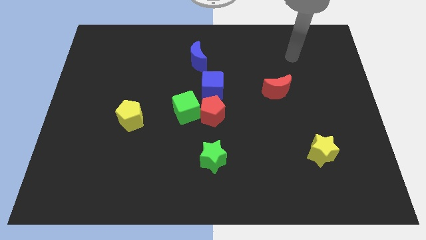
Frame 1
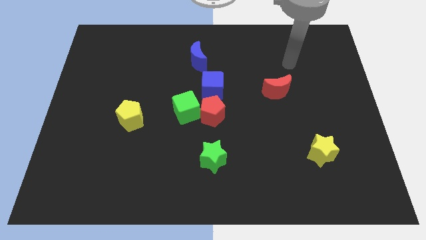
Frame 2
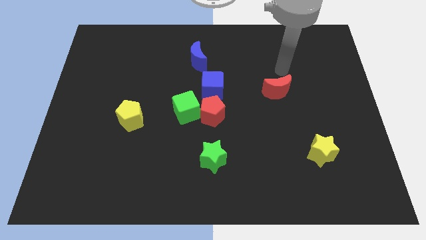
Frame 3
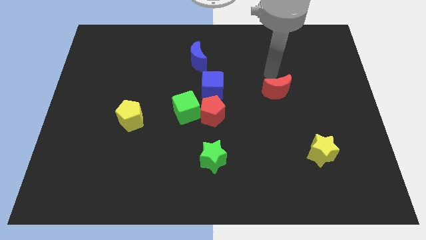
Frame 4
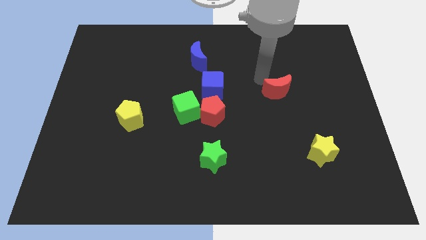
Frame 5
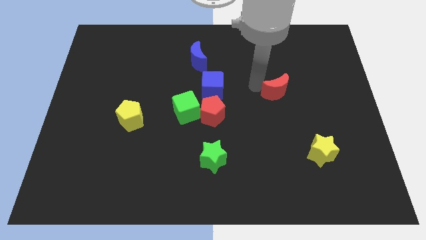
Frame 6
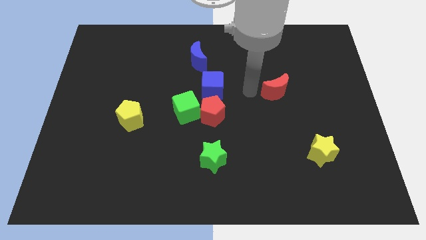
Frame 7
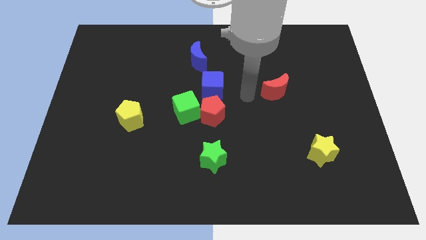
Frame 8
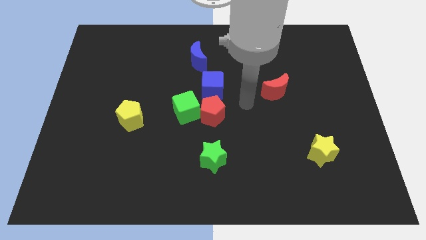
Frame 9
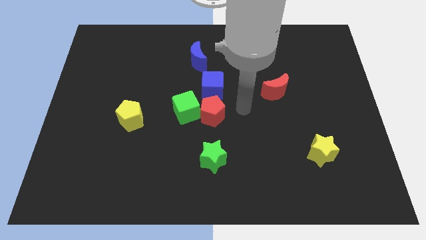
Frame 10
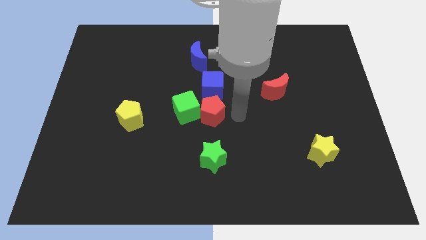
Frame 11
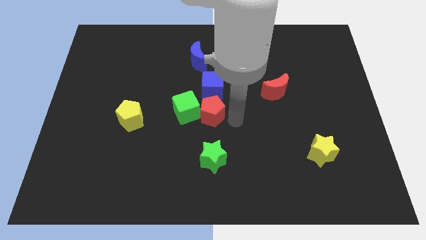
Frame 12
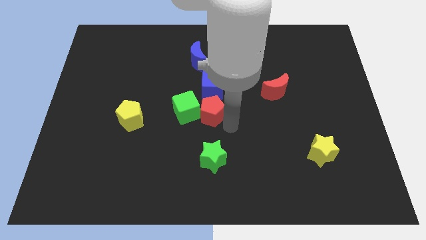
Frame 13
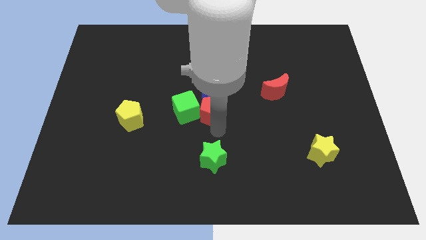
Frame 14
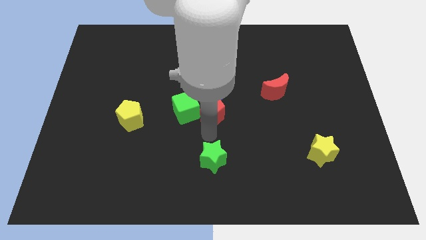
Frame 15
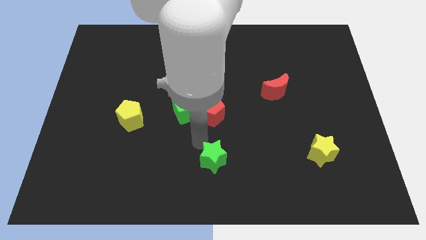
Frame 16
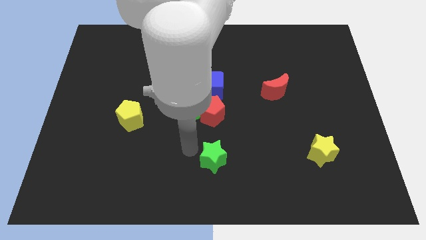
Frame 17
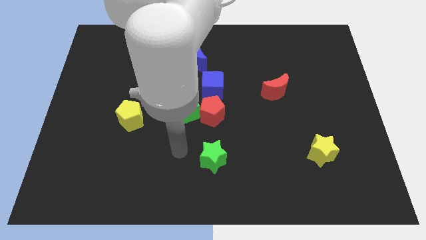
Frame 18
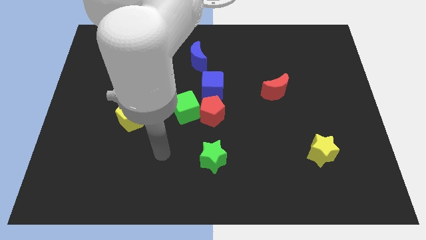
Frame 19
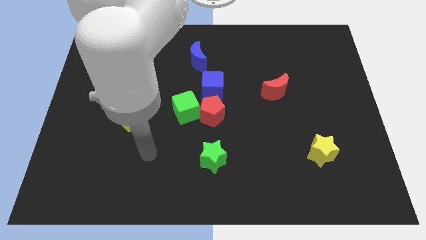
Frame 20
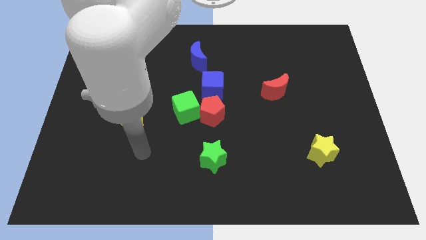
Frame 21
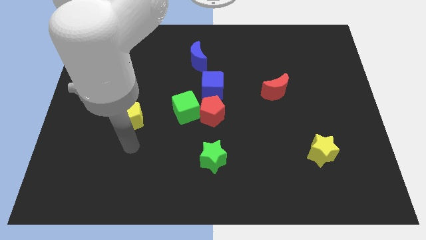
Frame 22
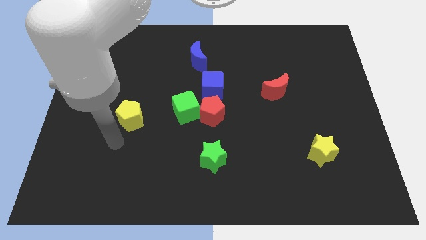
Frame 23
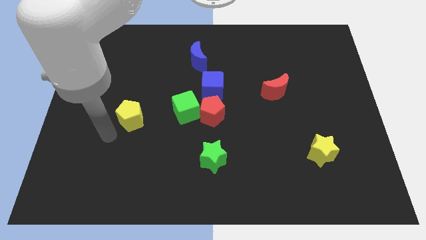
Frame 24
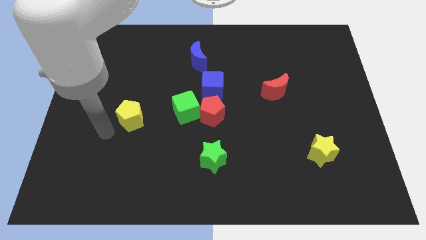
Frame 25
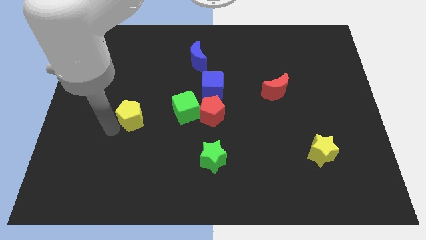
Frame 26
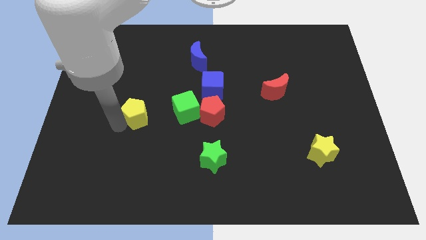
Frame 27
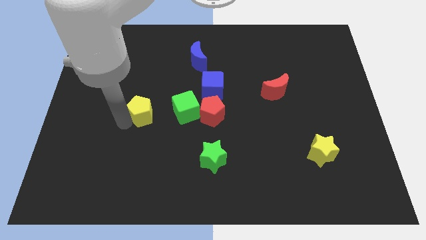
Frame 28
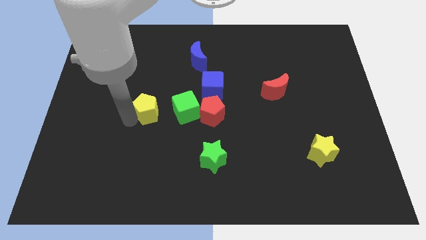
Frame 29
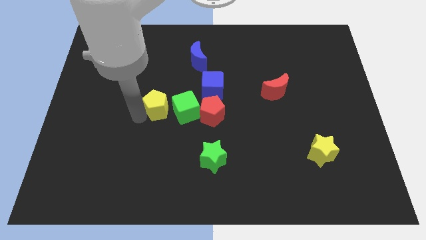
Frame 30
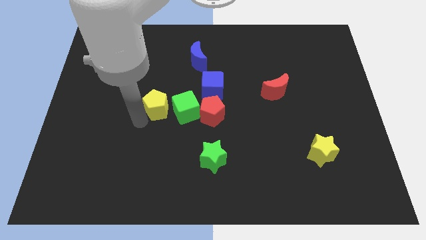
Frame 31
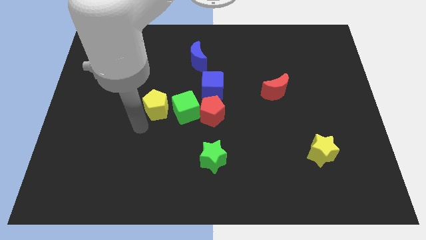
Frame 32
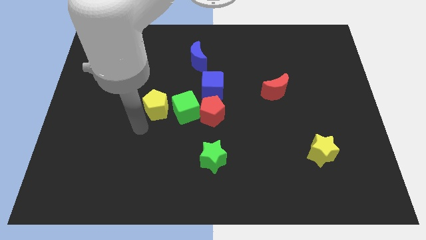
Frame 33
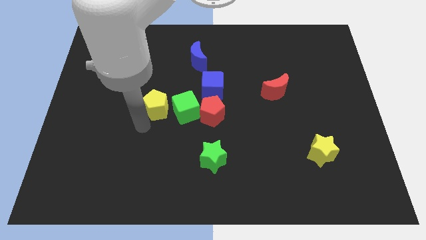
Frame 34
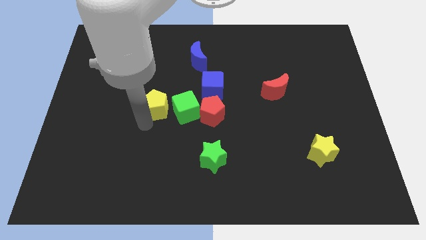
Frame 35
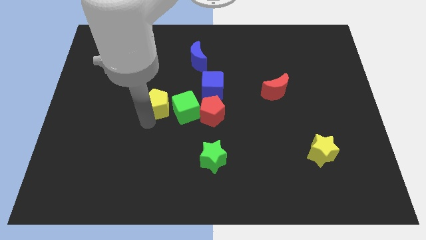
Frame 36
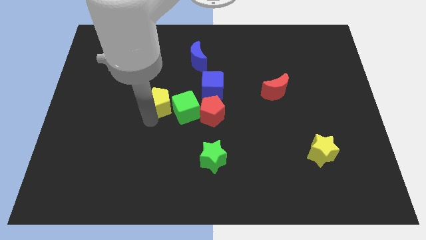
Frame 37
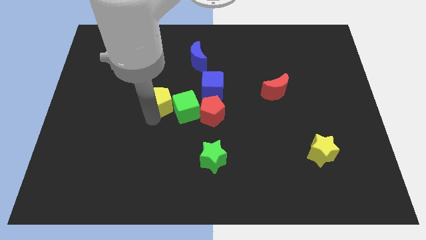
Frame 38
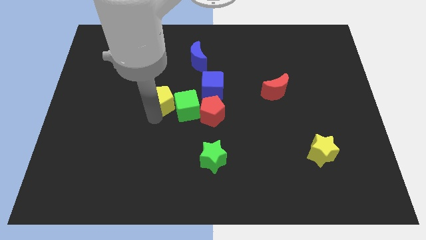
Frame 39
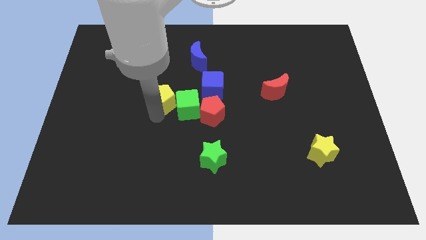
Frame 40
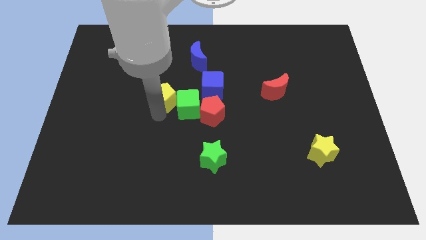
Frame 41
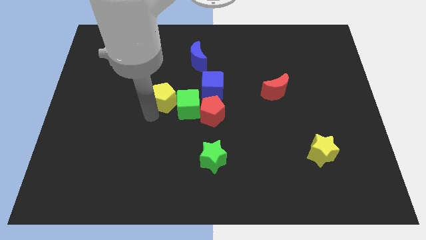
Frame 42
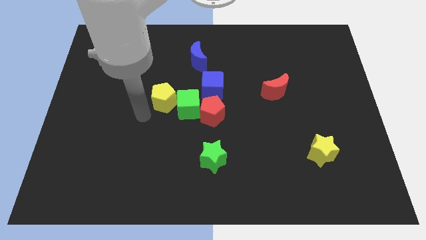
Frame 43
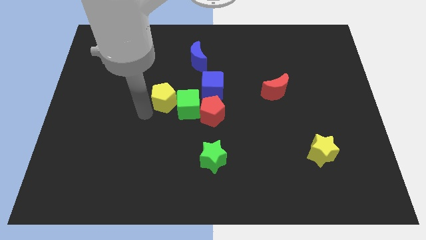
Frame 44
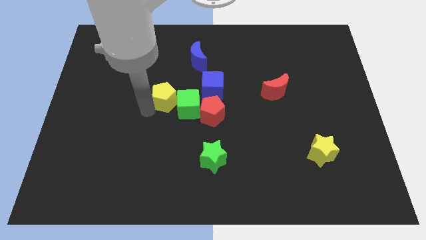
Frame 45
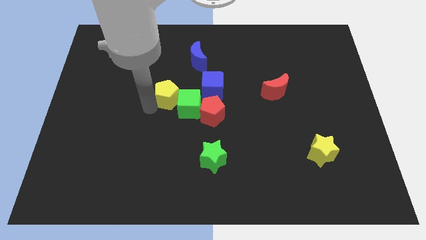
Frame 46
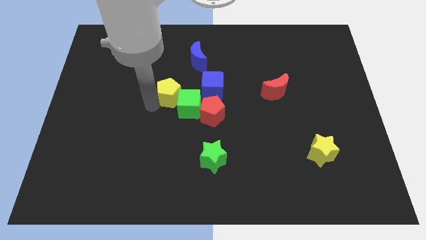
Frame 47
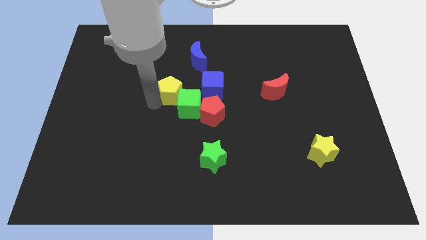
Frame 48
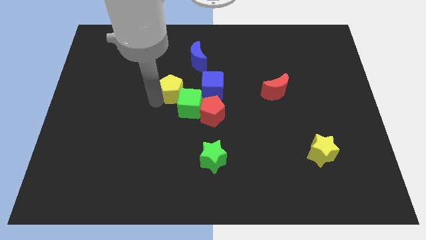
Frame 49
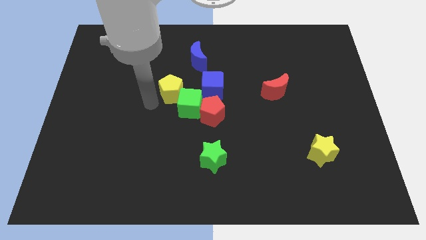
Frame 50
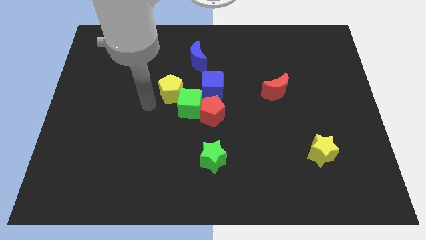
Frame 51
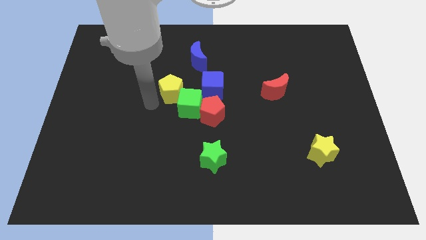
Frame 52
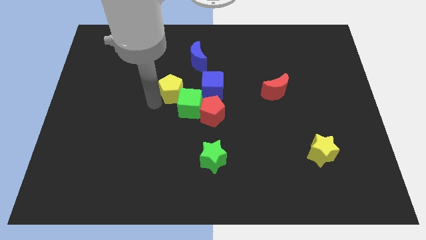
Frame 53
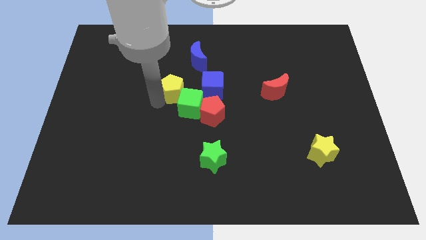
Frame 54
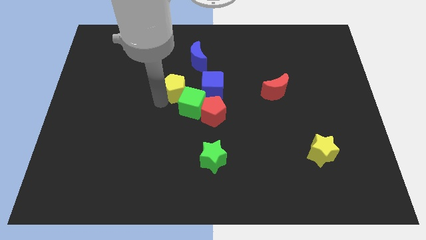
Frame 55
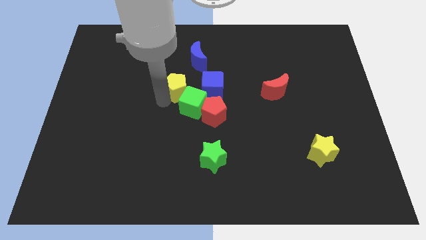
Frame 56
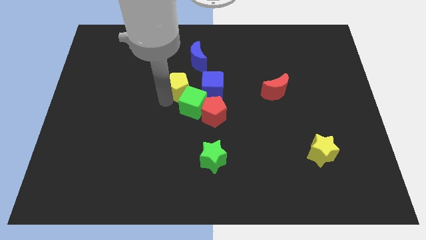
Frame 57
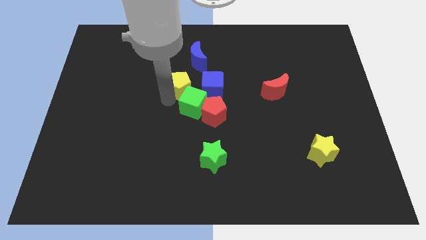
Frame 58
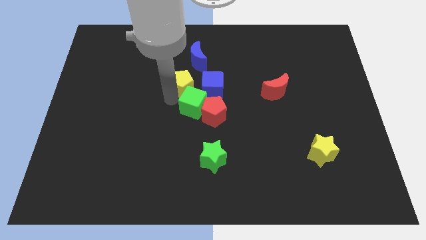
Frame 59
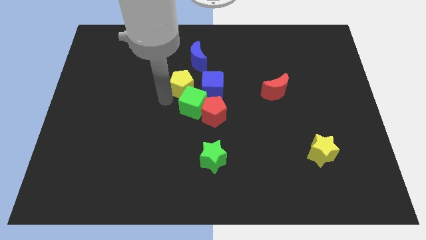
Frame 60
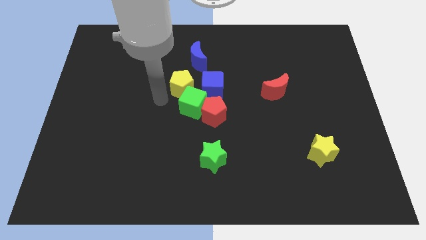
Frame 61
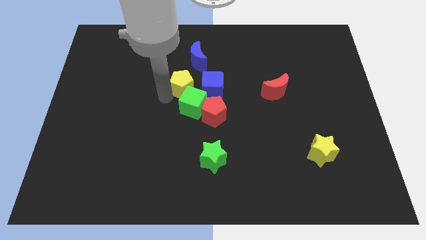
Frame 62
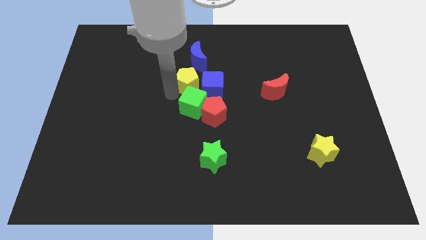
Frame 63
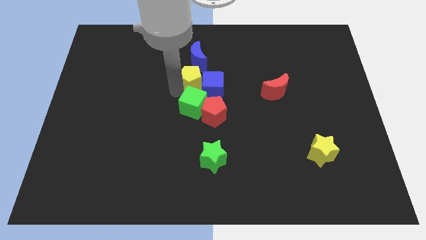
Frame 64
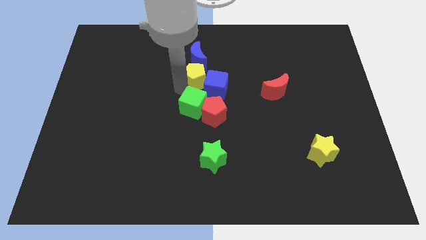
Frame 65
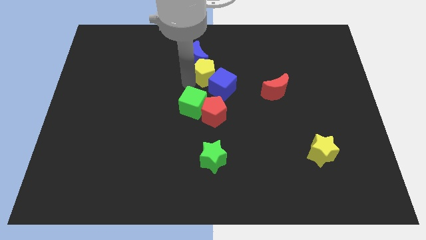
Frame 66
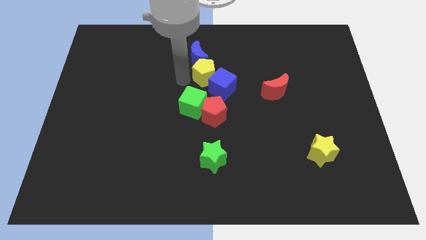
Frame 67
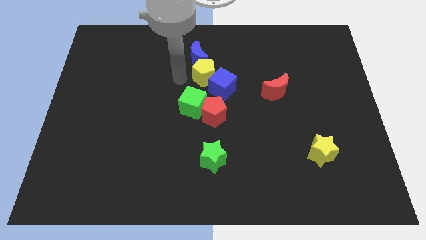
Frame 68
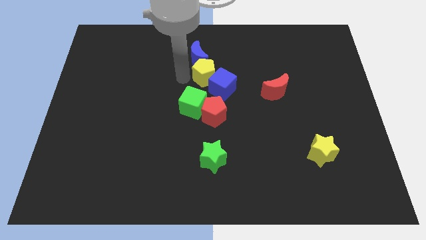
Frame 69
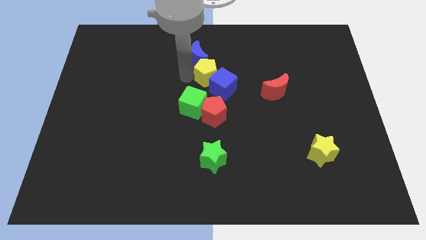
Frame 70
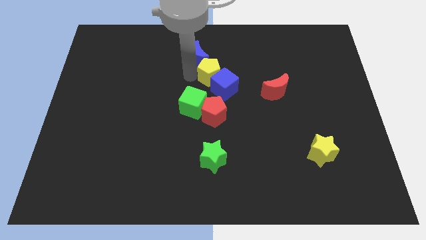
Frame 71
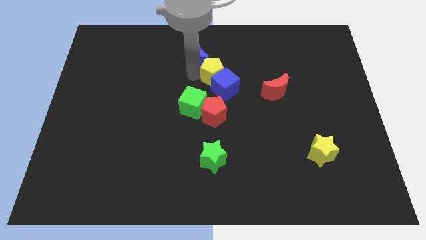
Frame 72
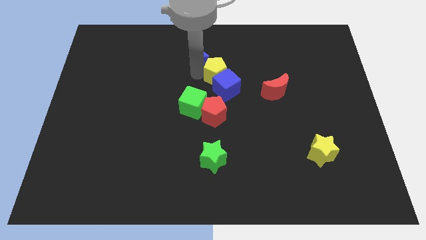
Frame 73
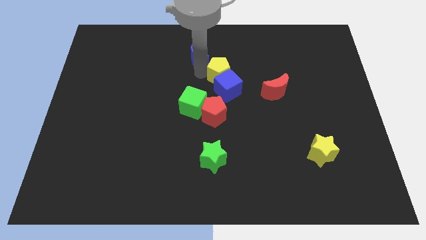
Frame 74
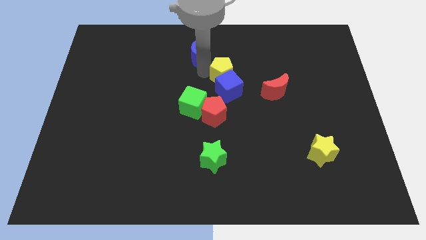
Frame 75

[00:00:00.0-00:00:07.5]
move the yellow pentagon diagonally up and to the right of the blue cube
